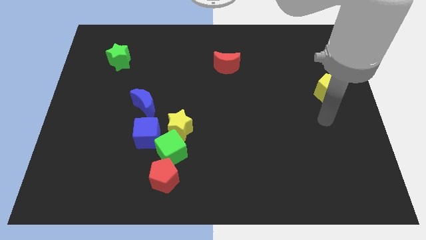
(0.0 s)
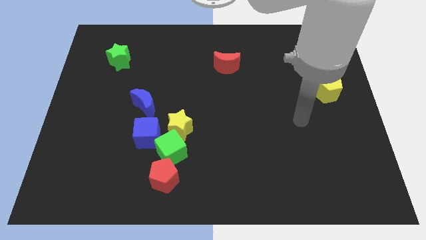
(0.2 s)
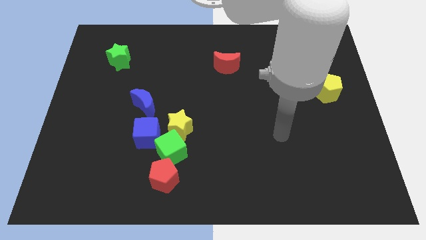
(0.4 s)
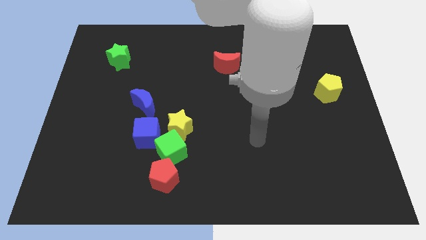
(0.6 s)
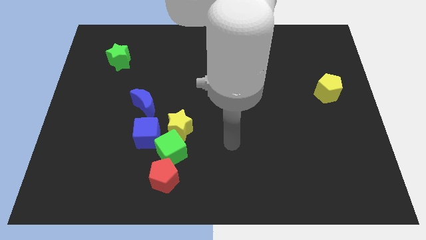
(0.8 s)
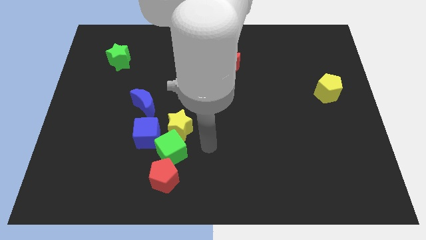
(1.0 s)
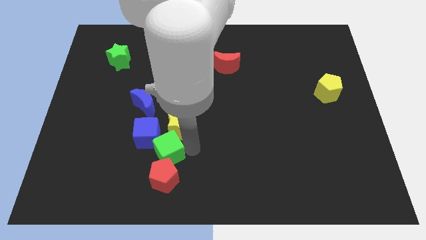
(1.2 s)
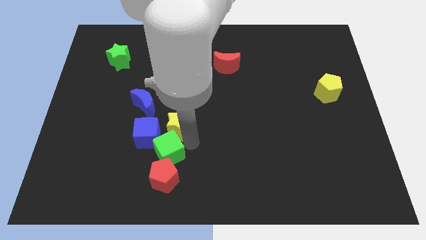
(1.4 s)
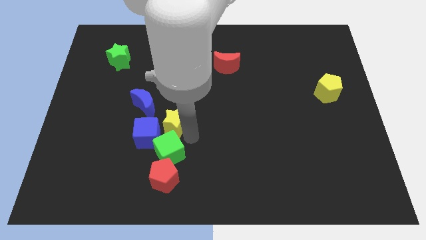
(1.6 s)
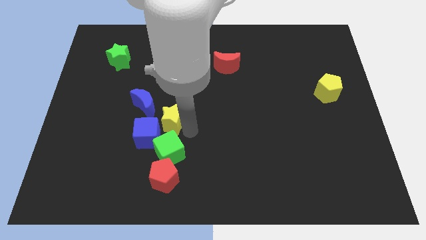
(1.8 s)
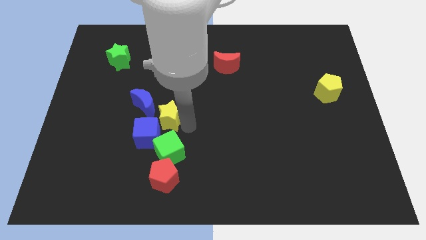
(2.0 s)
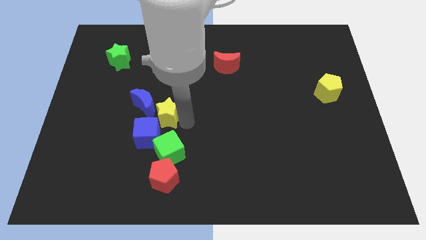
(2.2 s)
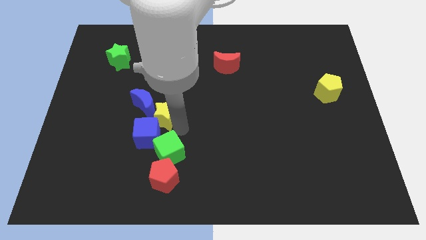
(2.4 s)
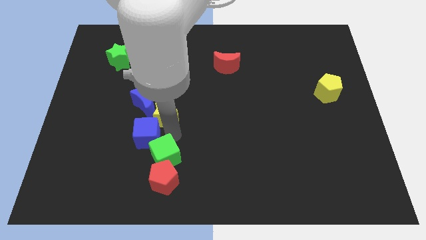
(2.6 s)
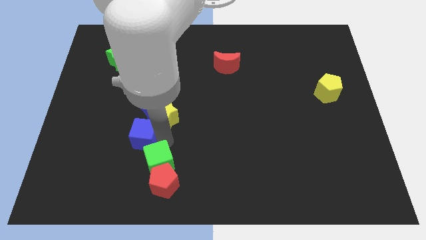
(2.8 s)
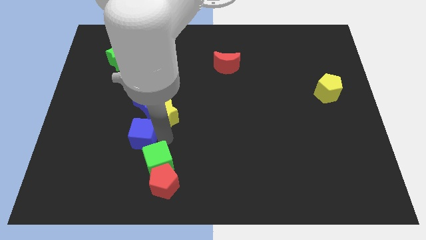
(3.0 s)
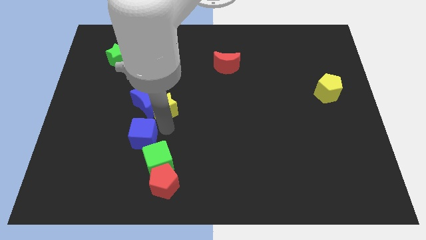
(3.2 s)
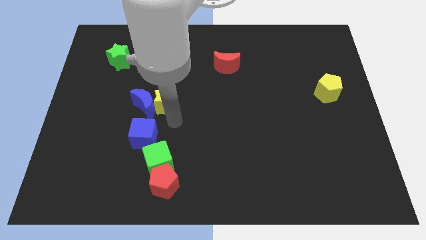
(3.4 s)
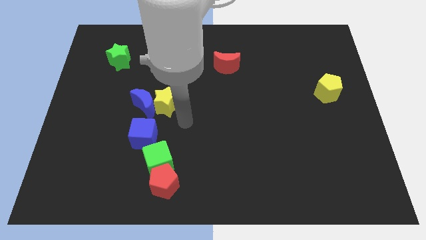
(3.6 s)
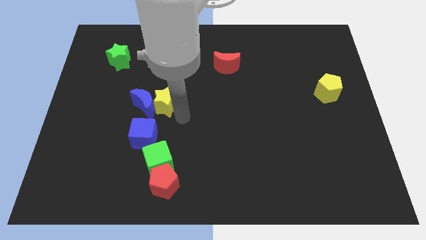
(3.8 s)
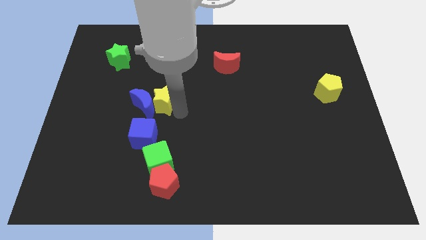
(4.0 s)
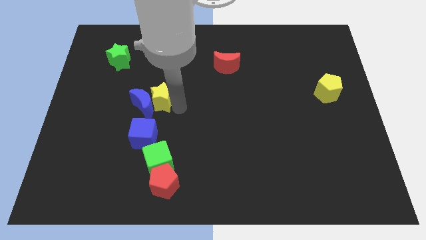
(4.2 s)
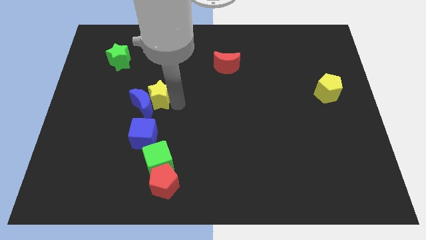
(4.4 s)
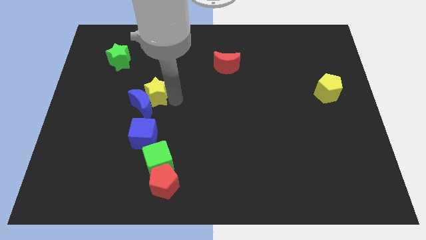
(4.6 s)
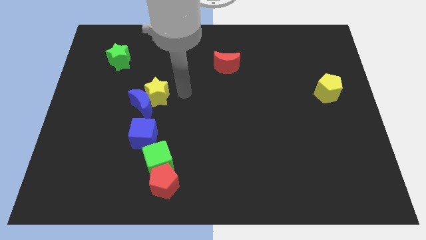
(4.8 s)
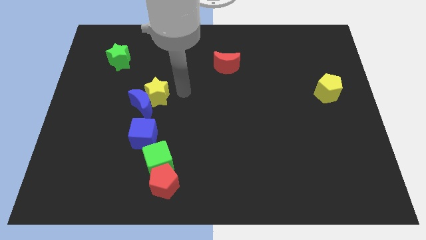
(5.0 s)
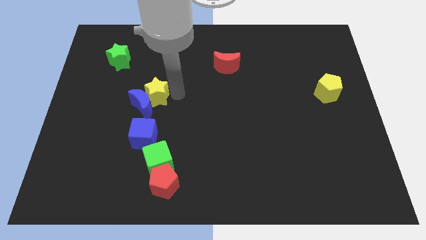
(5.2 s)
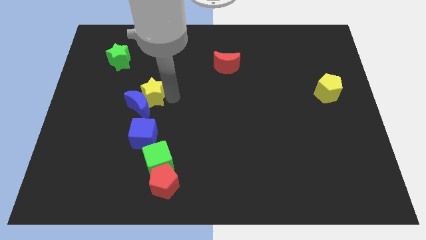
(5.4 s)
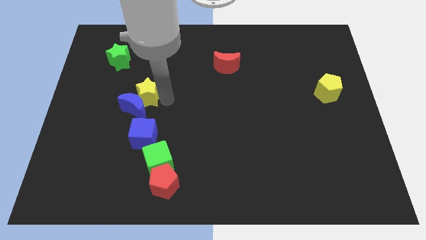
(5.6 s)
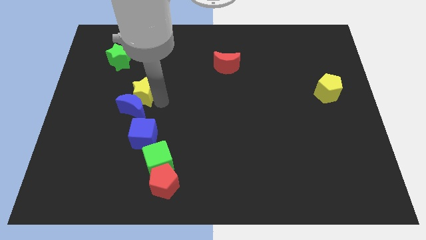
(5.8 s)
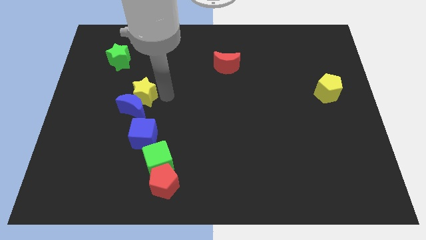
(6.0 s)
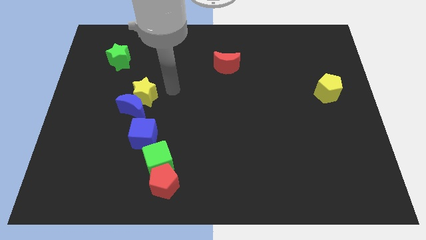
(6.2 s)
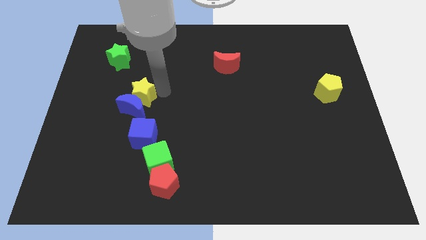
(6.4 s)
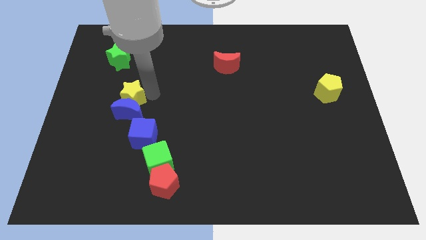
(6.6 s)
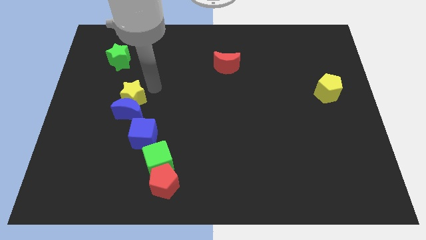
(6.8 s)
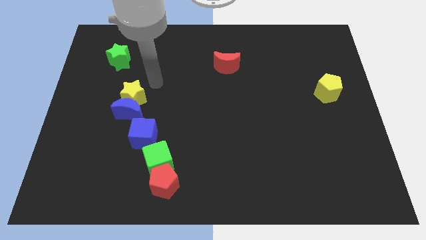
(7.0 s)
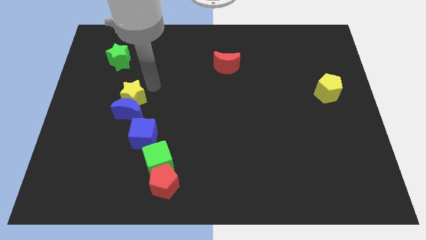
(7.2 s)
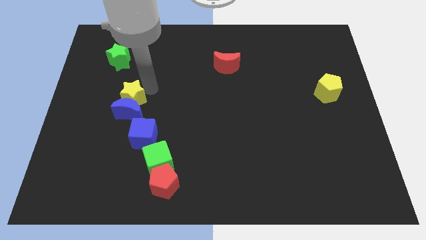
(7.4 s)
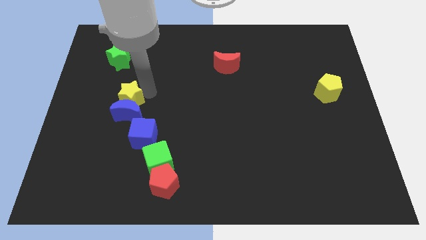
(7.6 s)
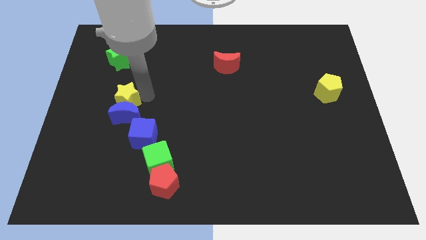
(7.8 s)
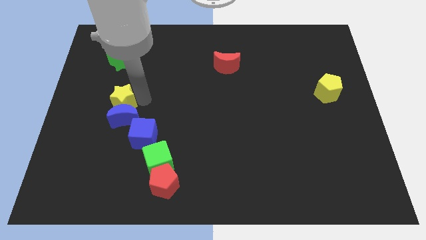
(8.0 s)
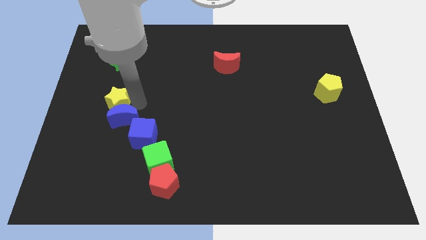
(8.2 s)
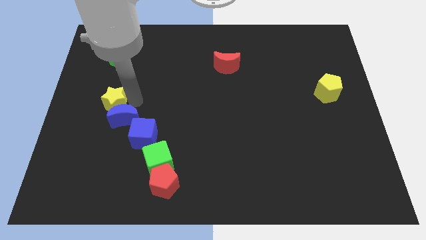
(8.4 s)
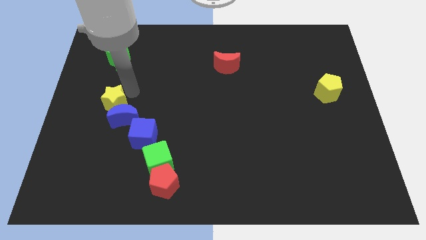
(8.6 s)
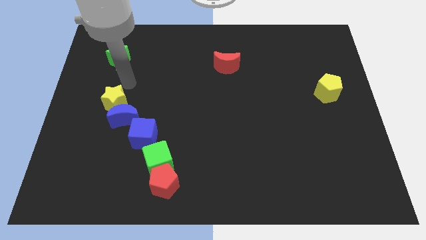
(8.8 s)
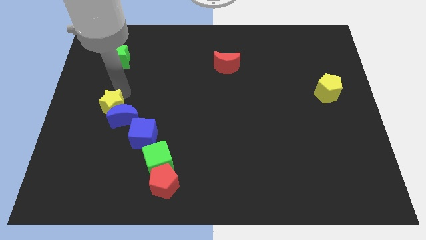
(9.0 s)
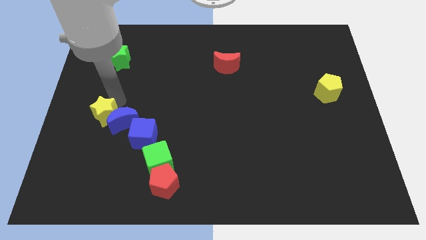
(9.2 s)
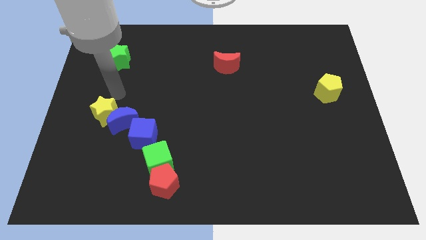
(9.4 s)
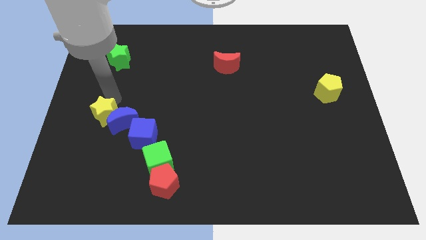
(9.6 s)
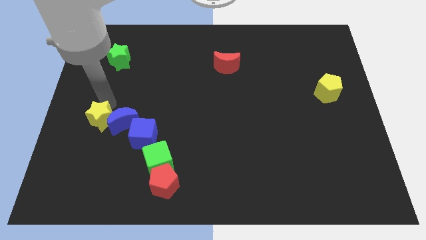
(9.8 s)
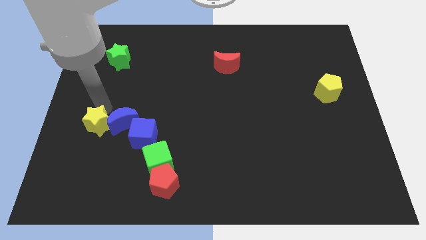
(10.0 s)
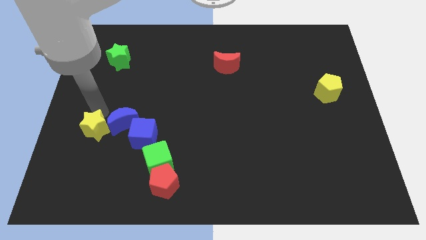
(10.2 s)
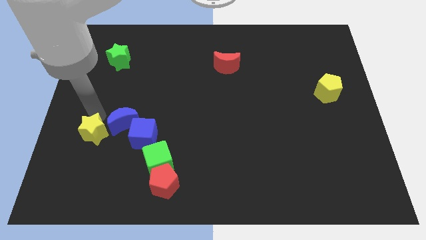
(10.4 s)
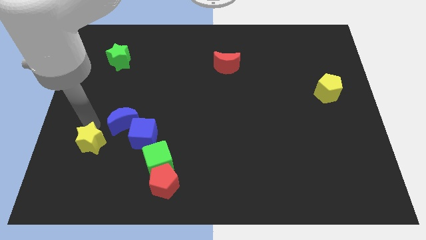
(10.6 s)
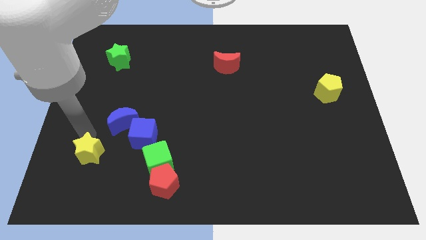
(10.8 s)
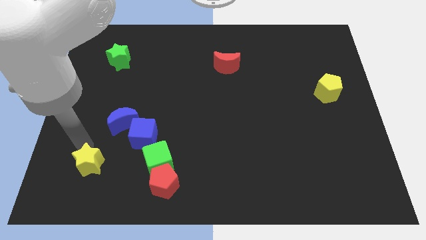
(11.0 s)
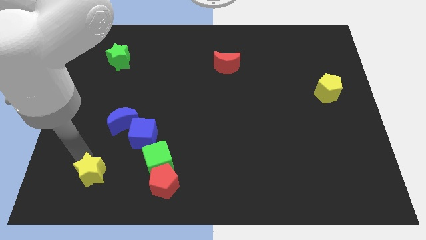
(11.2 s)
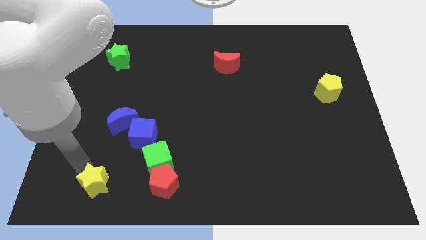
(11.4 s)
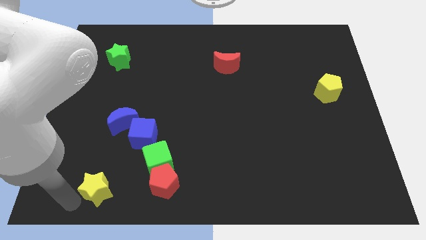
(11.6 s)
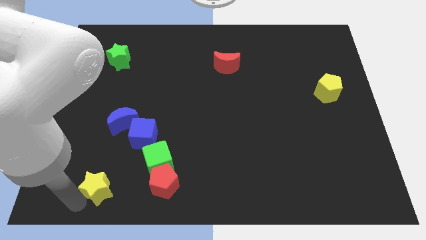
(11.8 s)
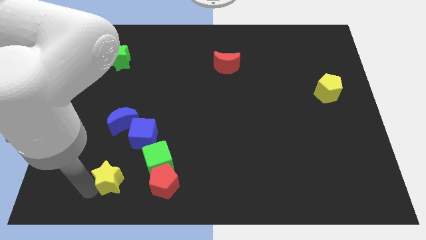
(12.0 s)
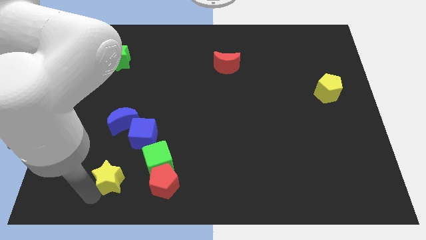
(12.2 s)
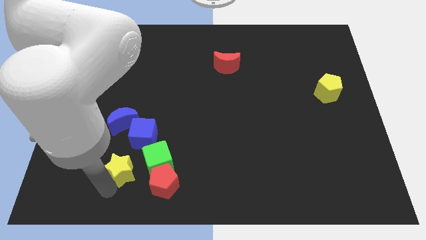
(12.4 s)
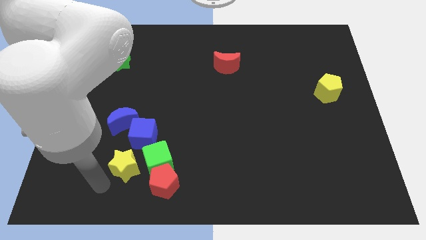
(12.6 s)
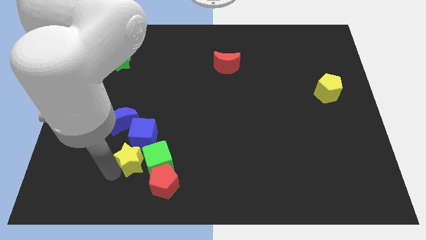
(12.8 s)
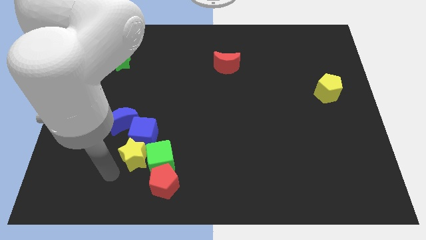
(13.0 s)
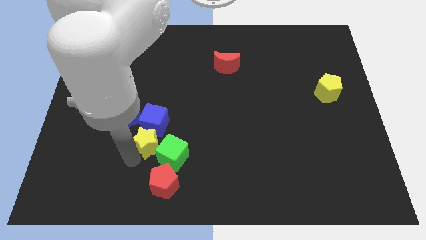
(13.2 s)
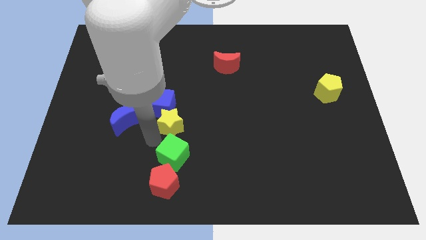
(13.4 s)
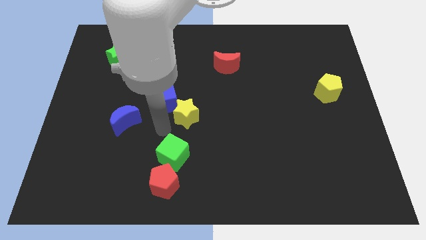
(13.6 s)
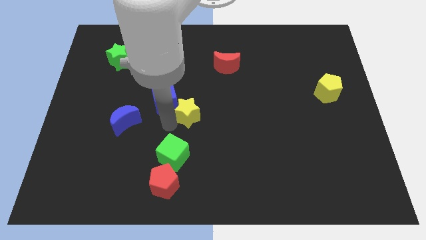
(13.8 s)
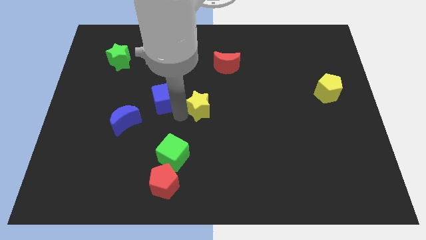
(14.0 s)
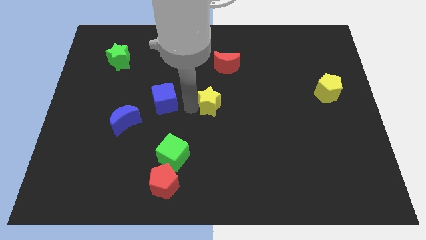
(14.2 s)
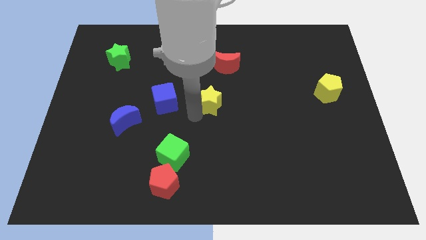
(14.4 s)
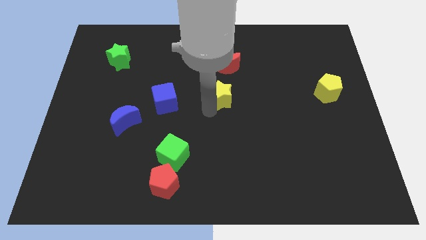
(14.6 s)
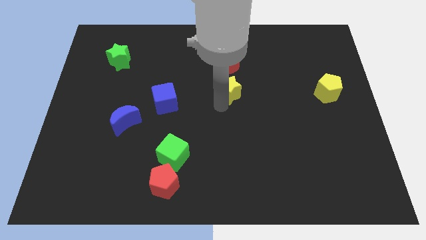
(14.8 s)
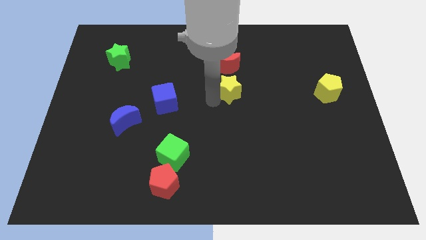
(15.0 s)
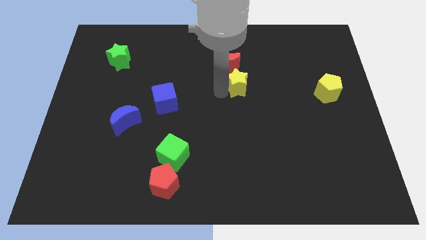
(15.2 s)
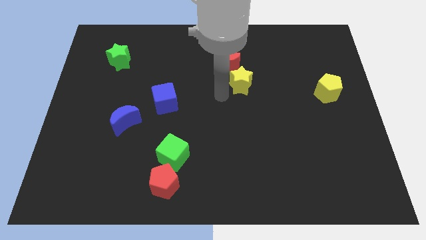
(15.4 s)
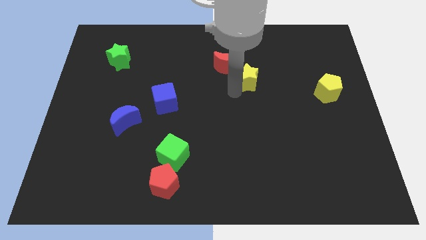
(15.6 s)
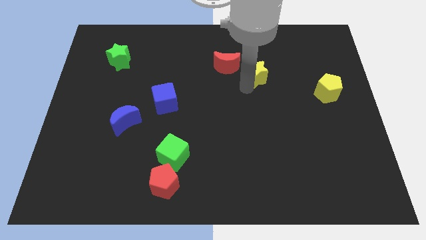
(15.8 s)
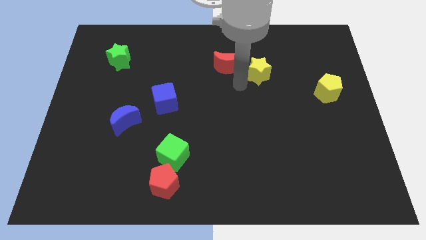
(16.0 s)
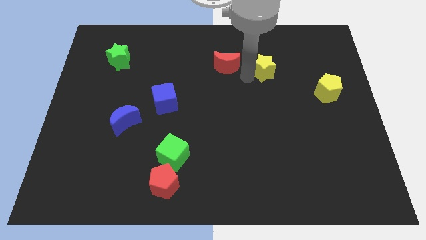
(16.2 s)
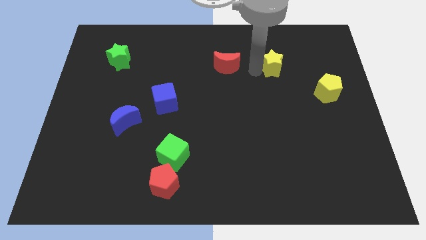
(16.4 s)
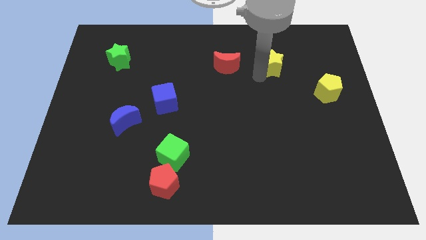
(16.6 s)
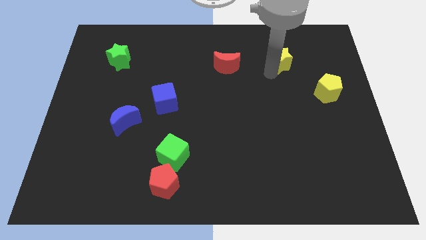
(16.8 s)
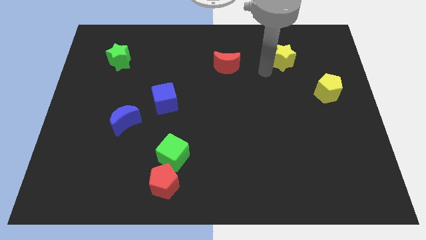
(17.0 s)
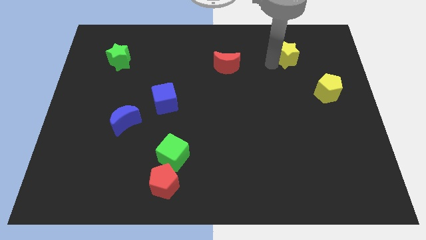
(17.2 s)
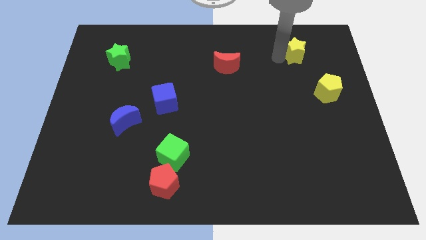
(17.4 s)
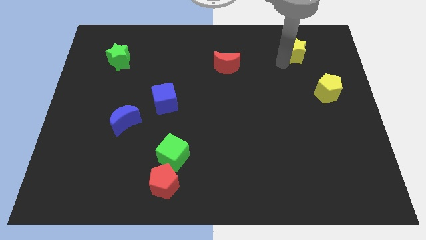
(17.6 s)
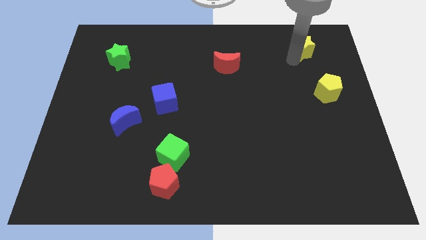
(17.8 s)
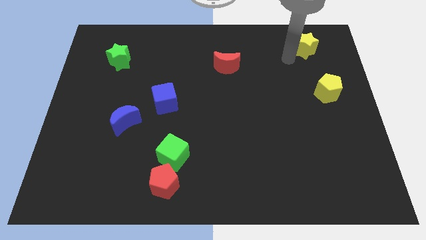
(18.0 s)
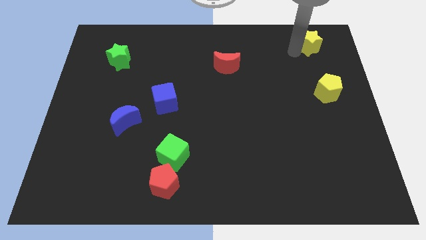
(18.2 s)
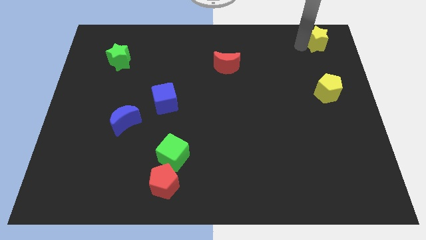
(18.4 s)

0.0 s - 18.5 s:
push the yellow star to the top right
